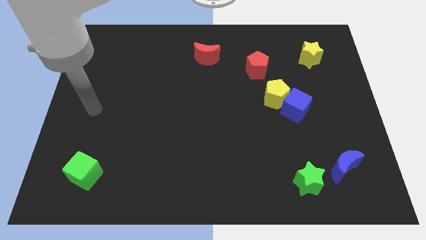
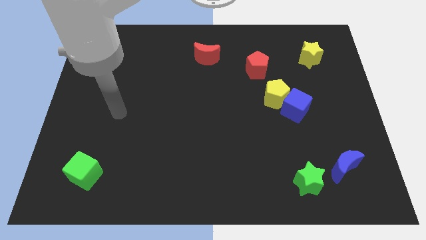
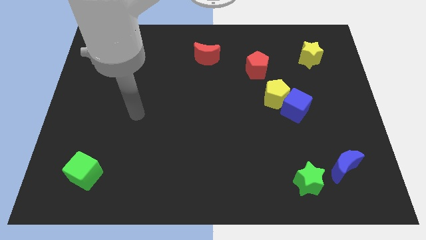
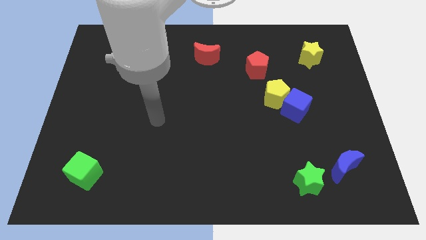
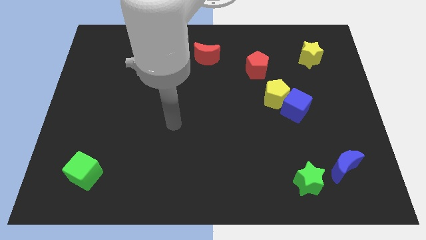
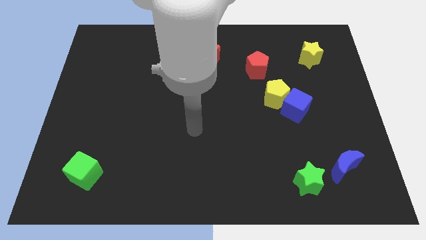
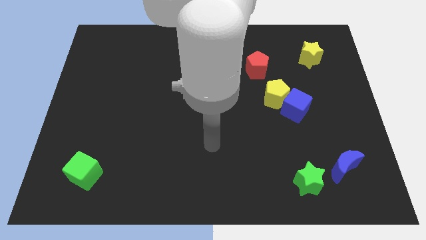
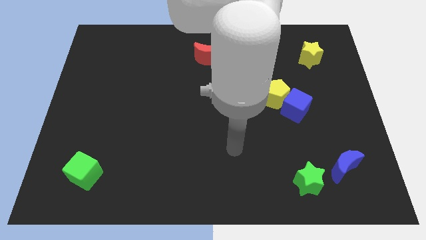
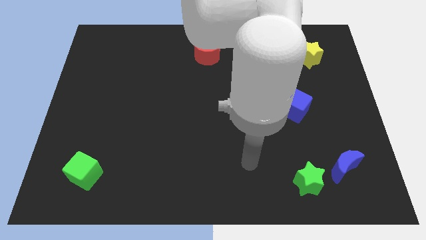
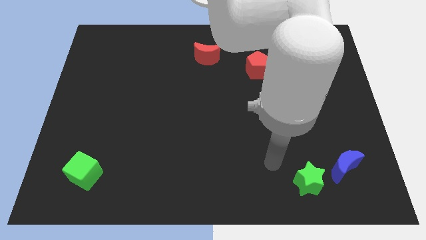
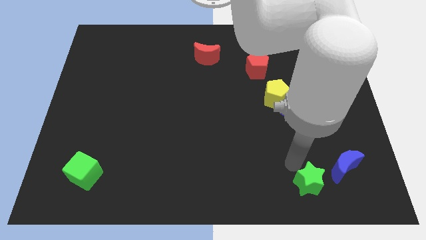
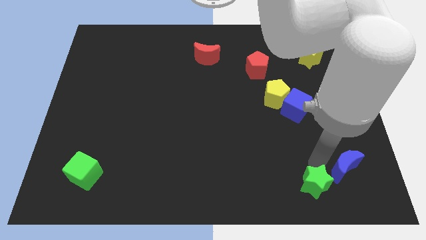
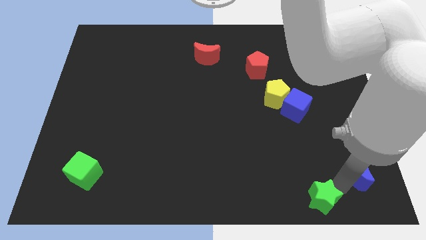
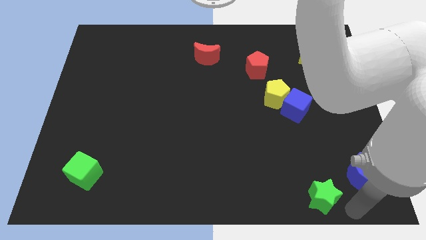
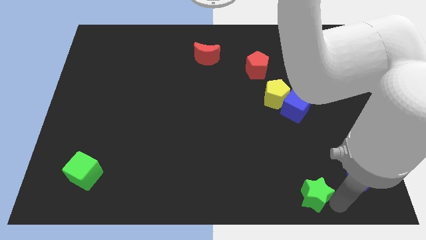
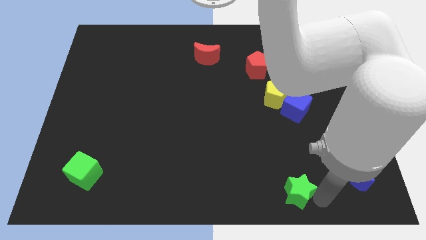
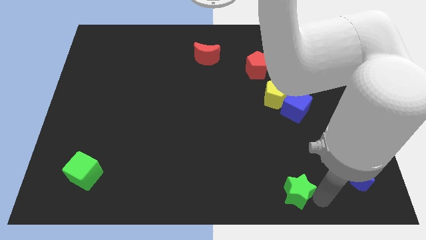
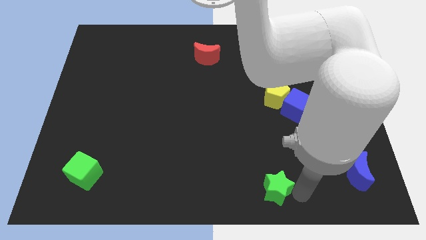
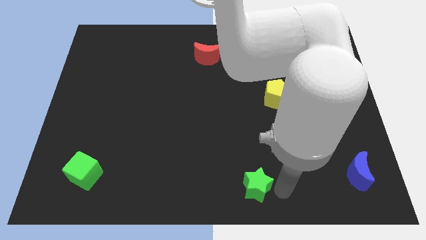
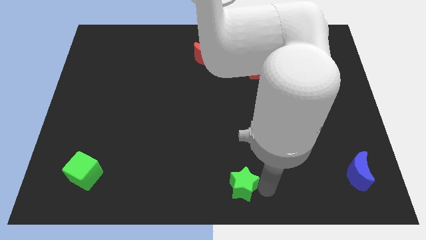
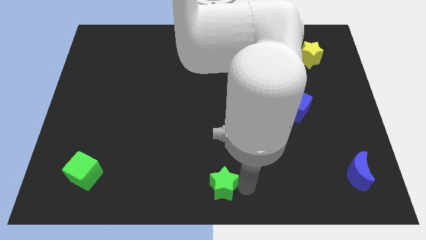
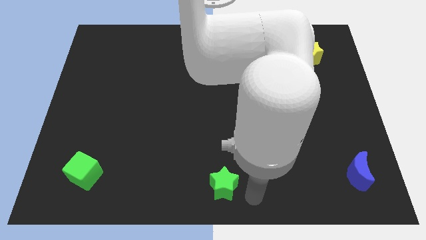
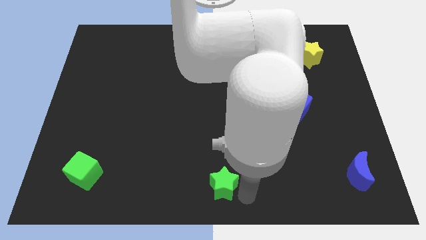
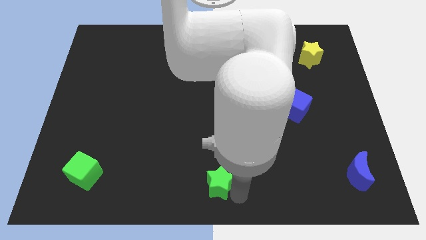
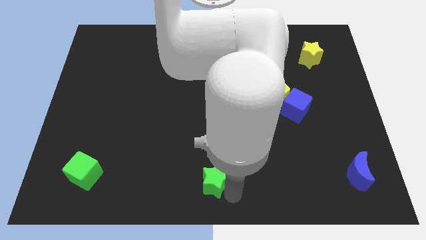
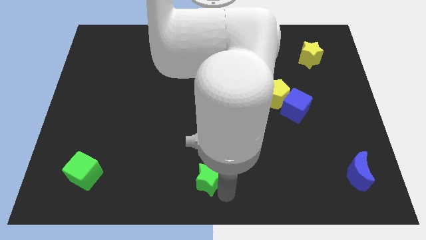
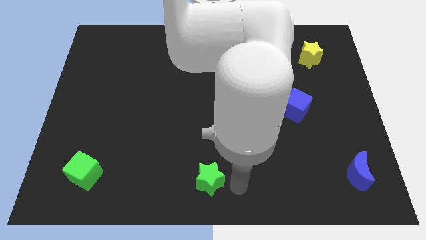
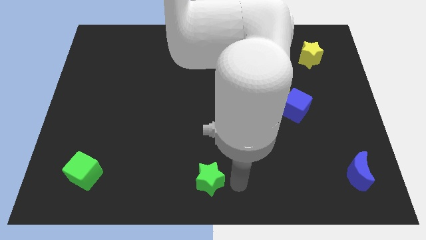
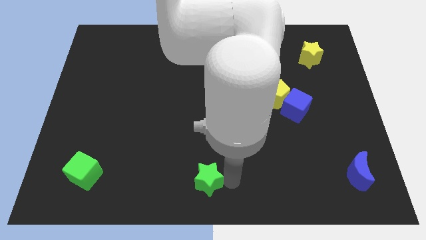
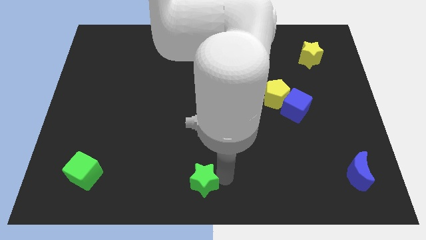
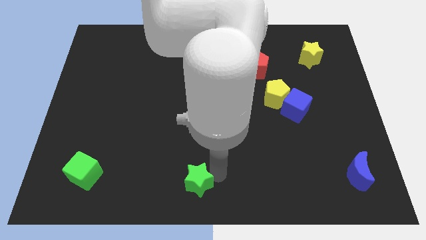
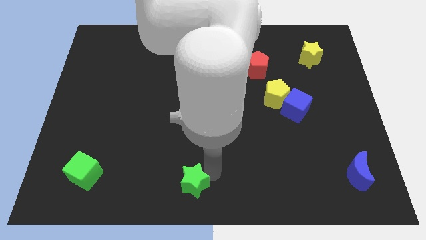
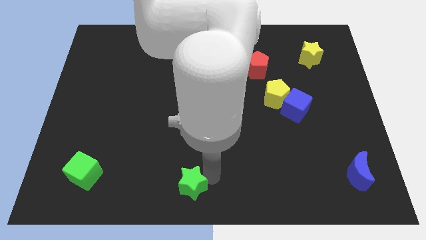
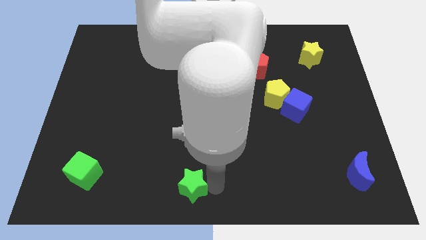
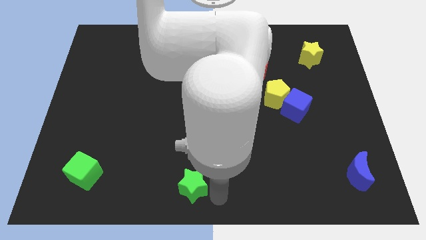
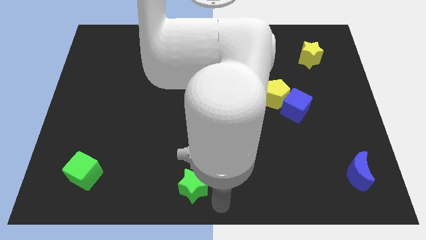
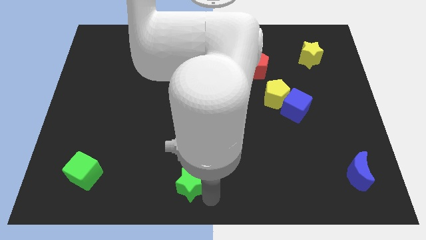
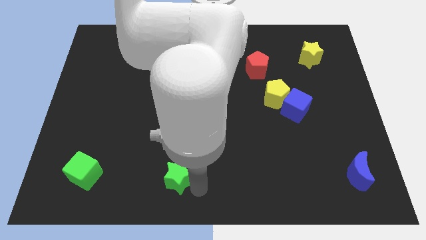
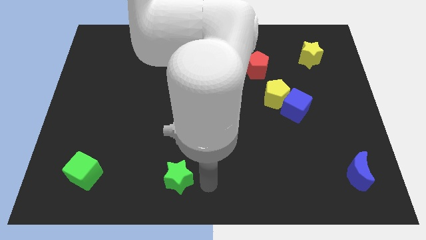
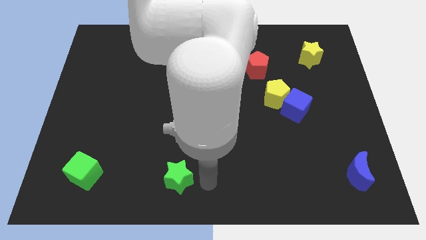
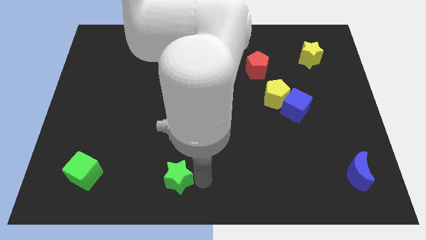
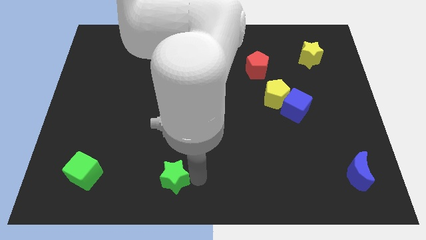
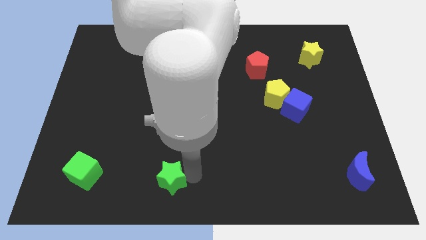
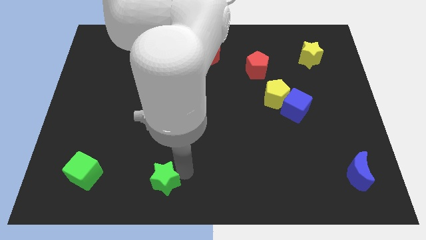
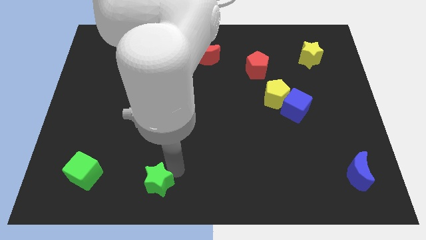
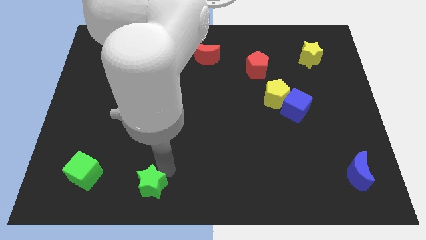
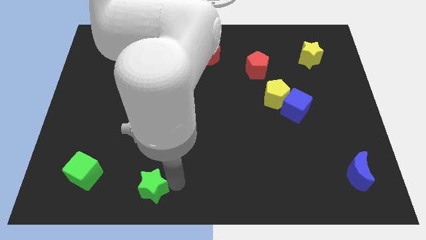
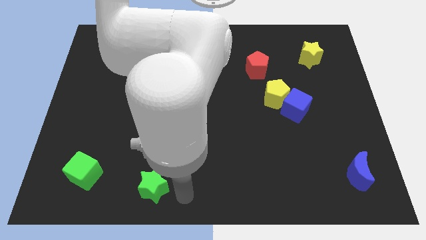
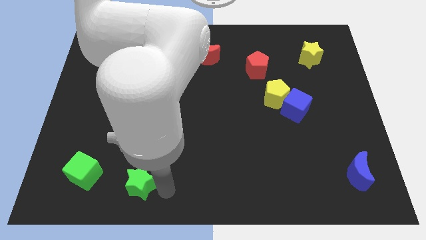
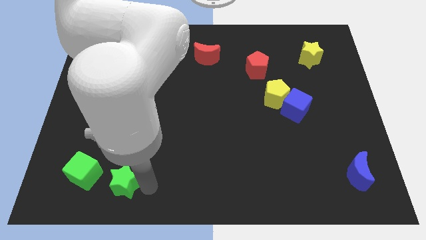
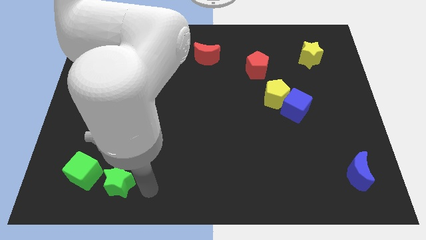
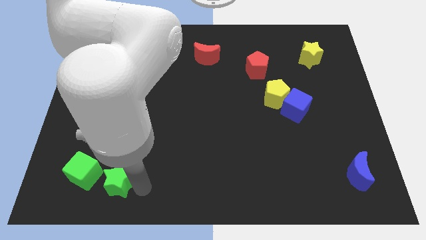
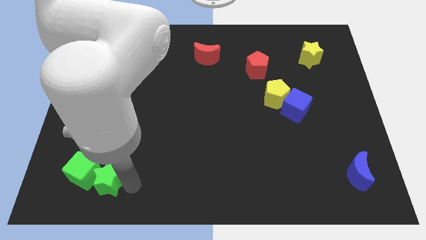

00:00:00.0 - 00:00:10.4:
slide the green star close to the green cube

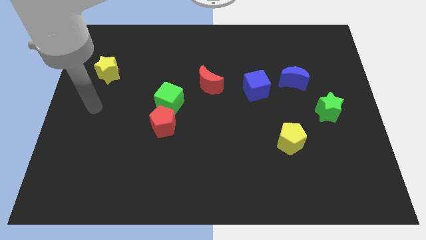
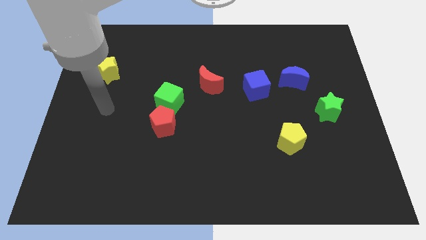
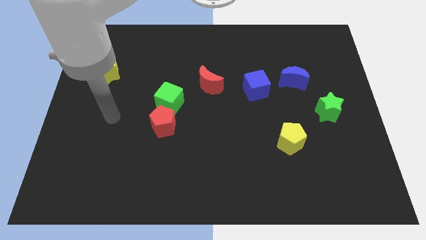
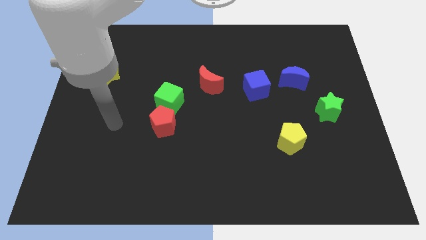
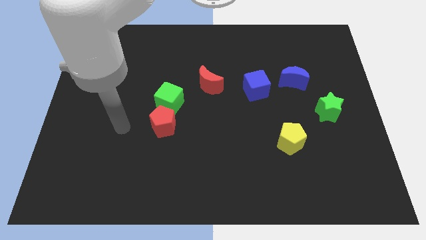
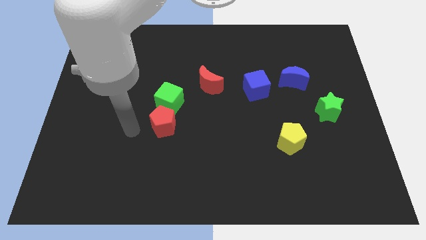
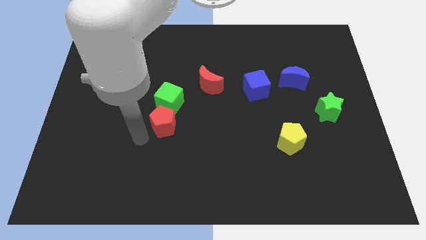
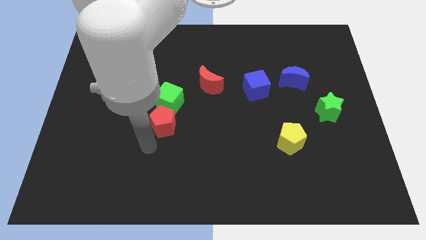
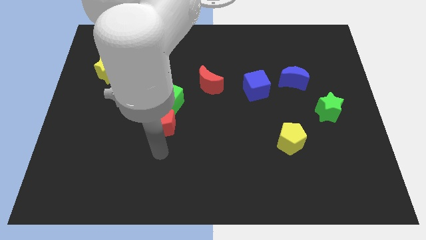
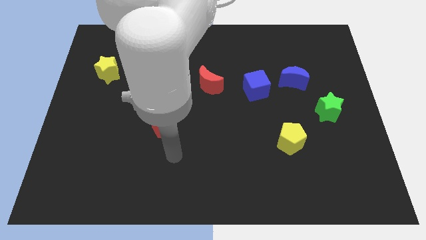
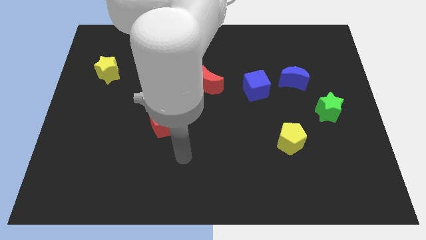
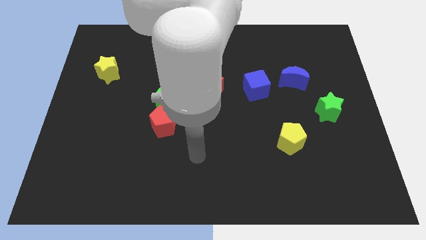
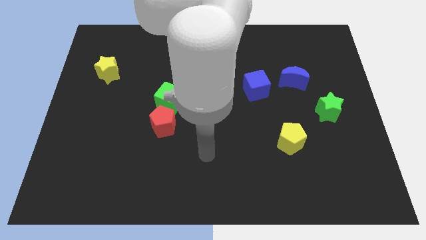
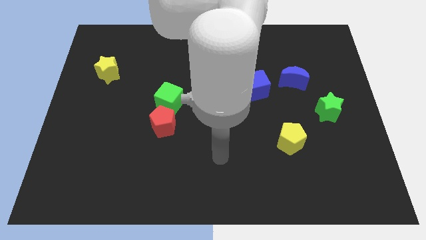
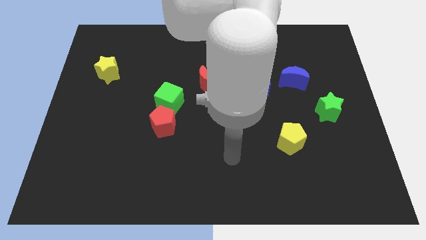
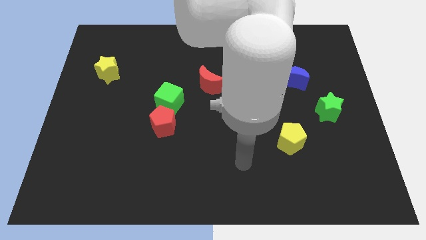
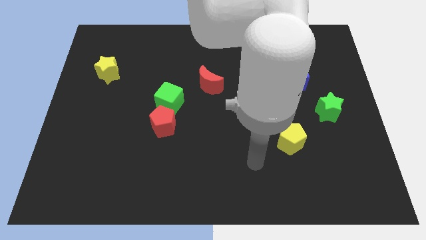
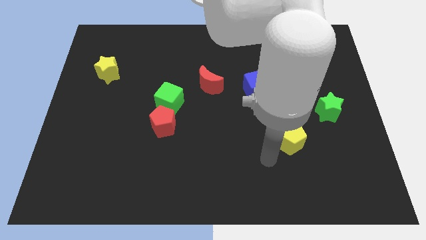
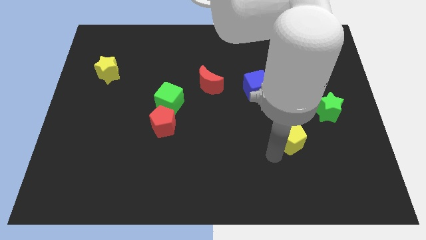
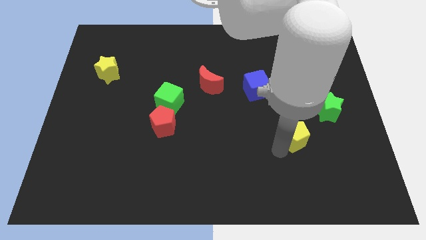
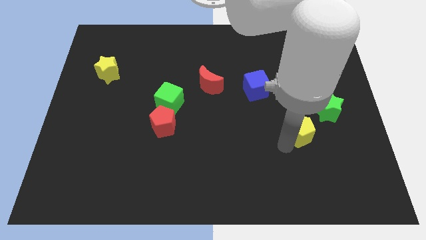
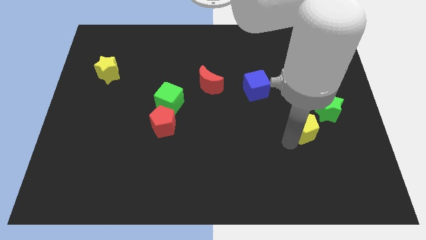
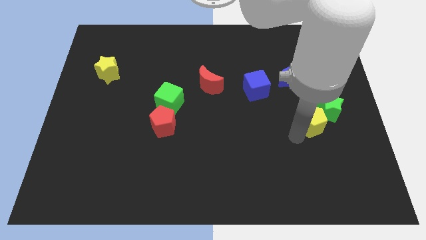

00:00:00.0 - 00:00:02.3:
put the yellow pentagon towards the green star
